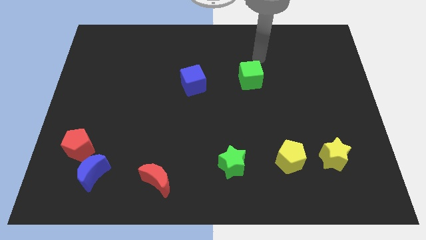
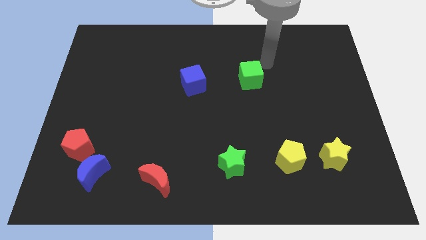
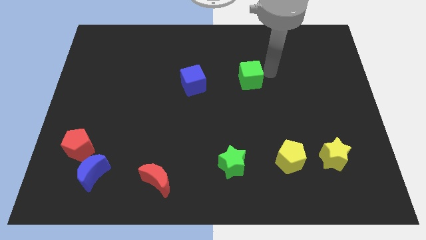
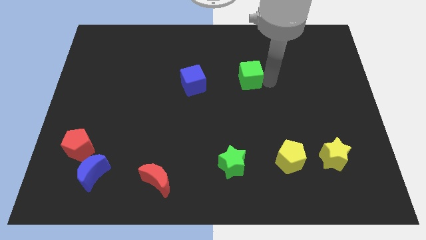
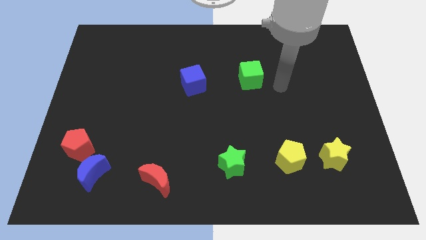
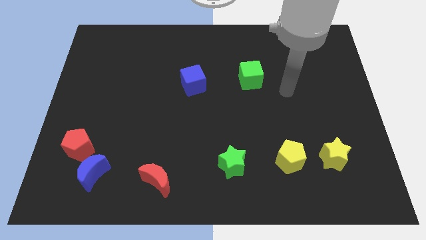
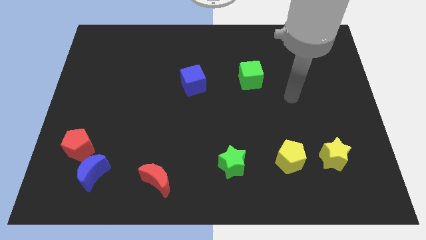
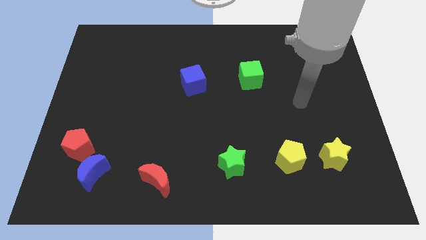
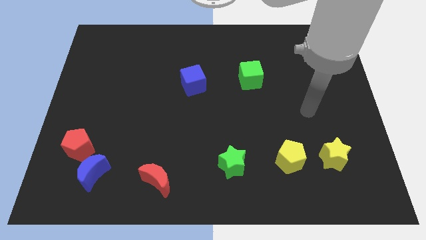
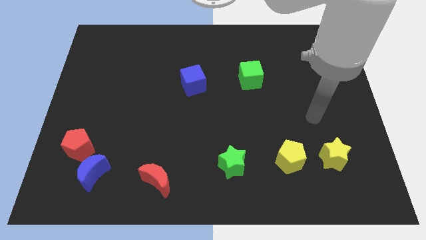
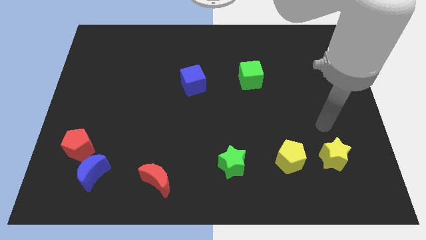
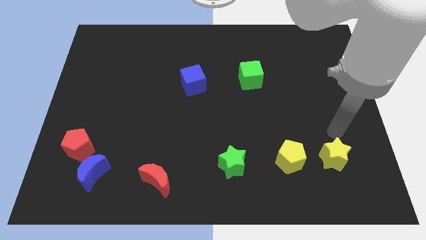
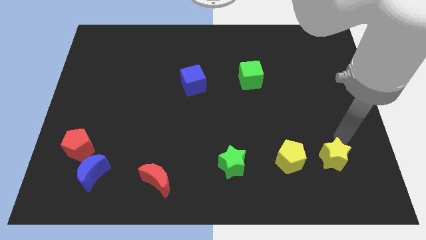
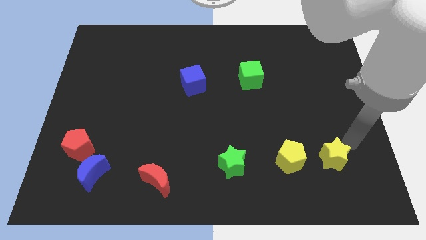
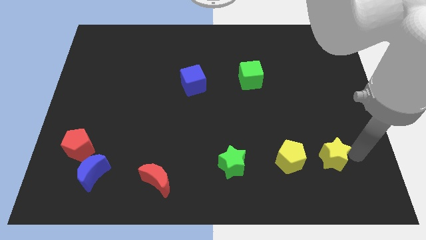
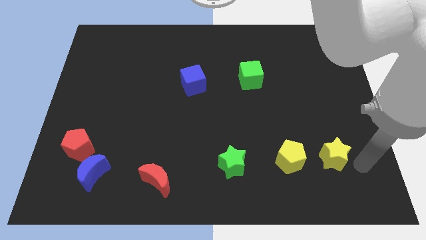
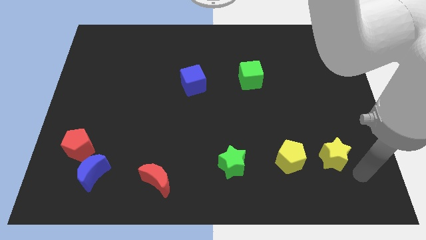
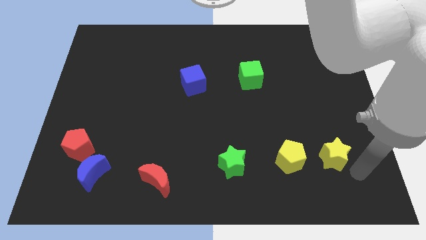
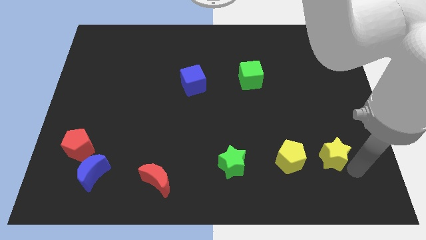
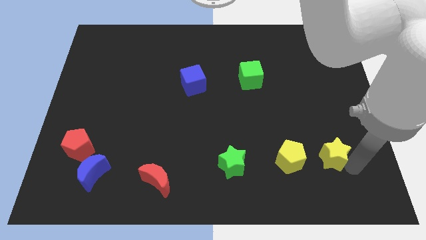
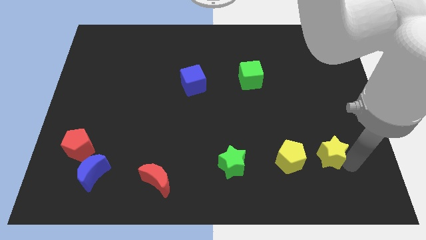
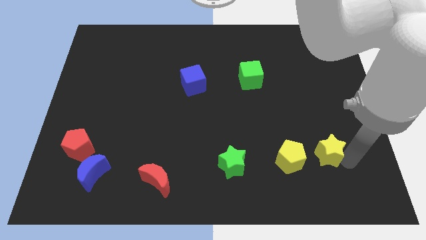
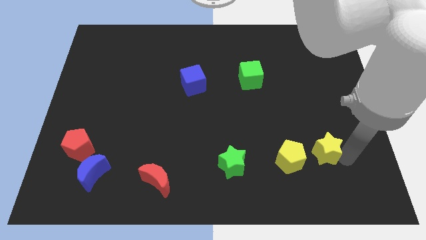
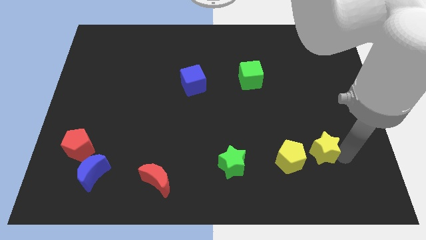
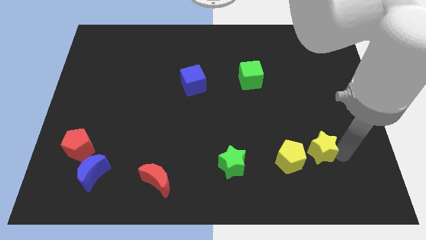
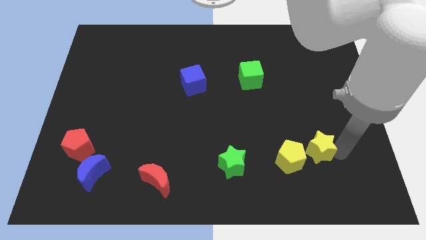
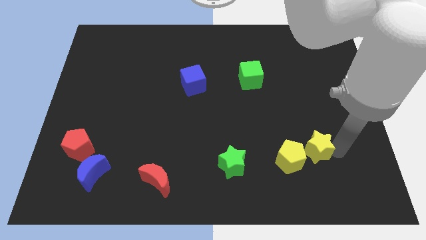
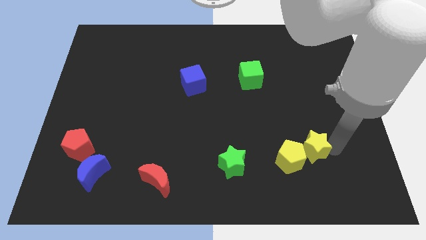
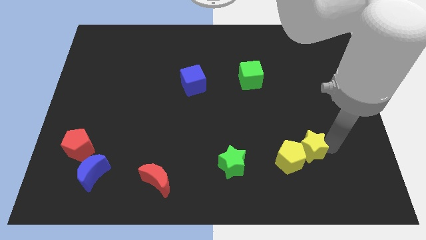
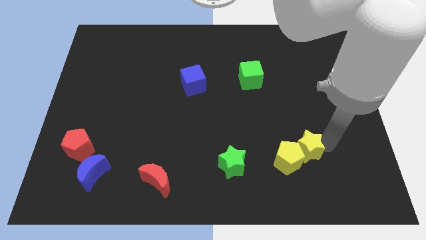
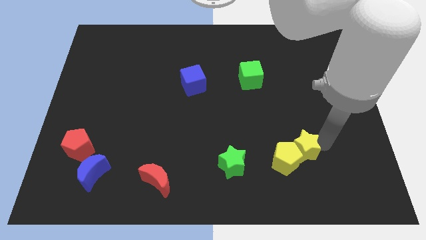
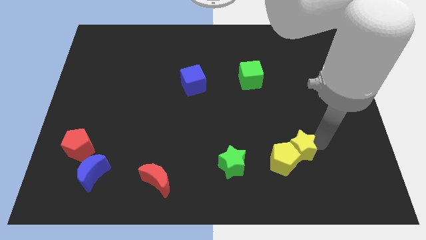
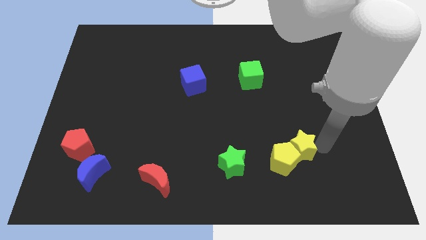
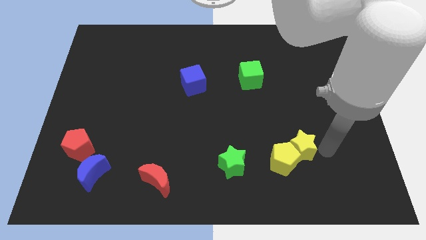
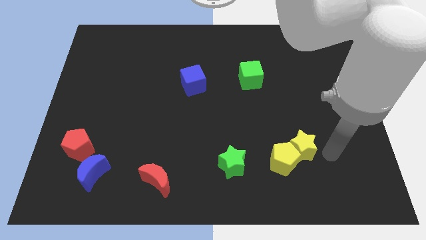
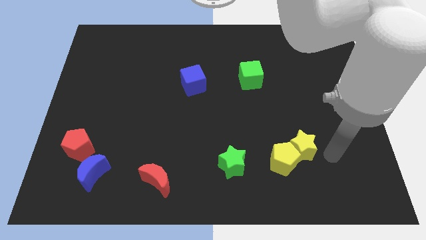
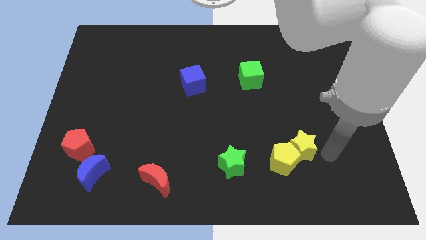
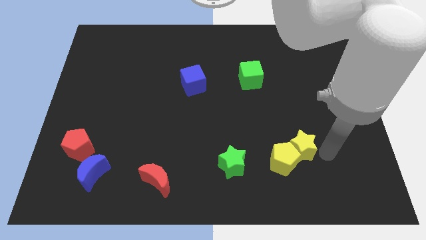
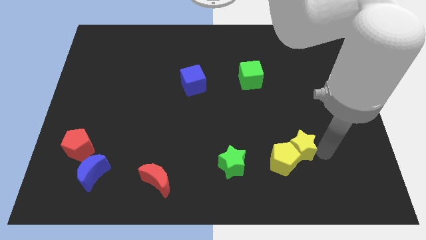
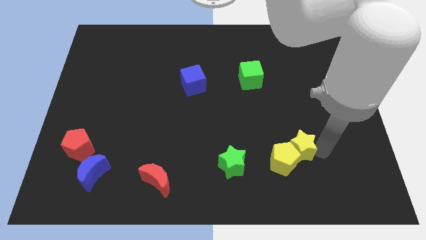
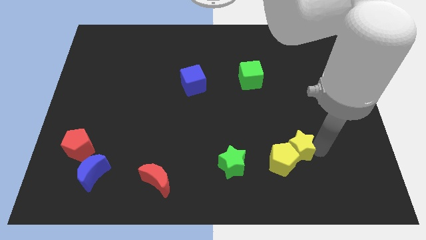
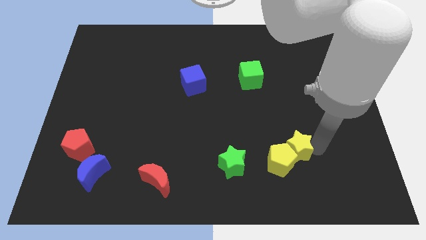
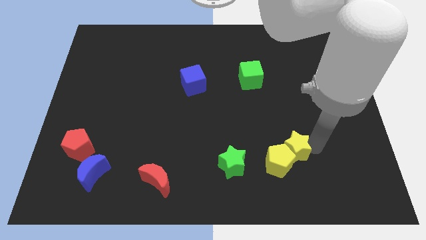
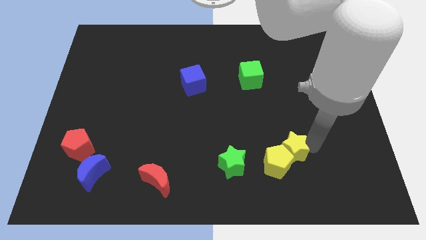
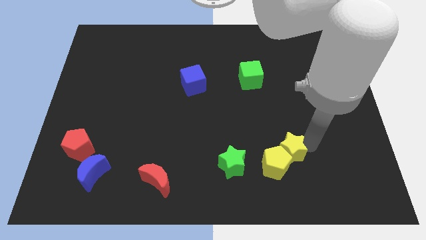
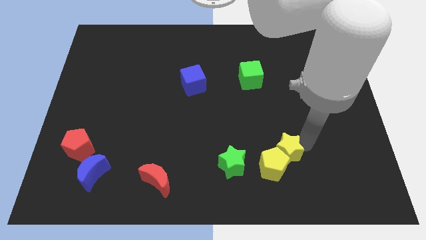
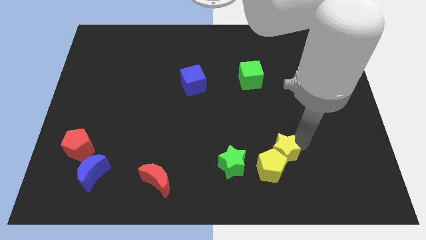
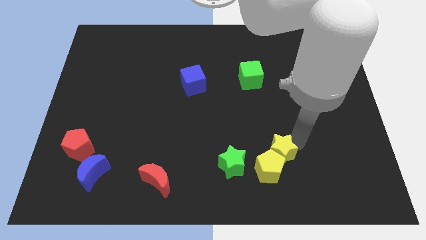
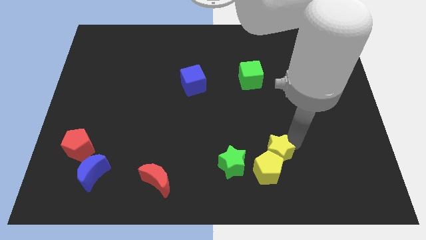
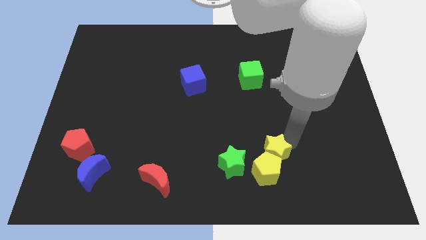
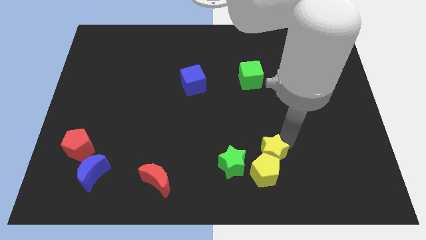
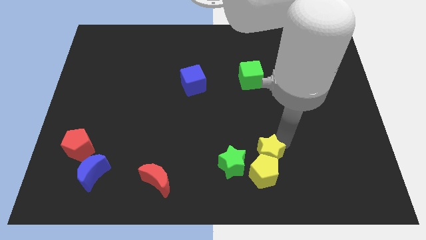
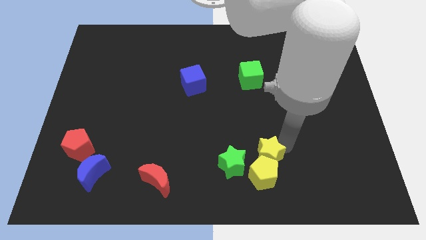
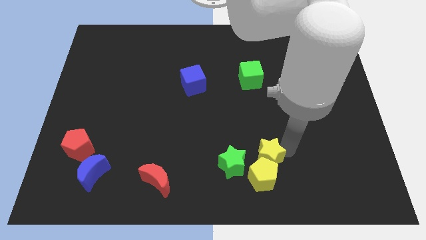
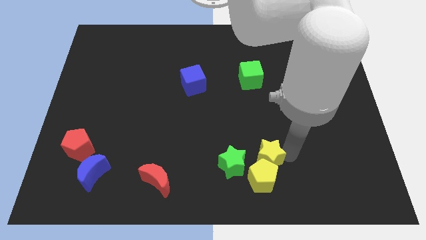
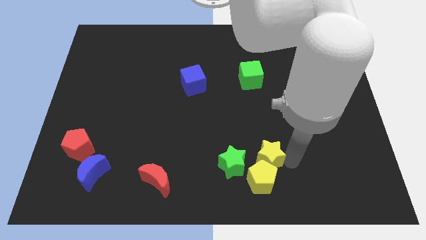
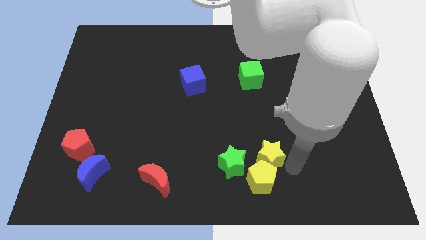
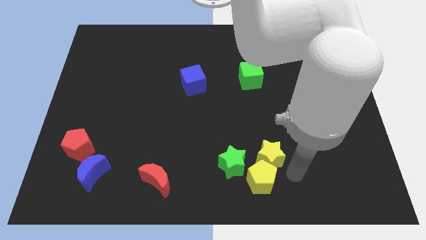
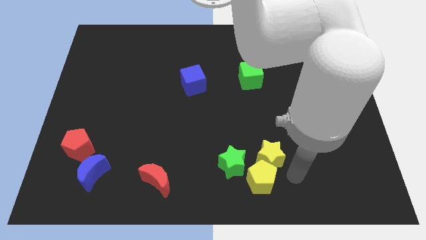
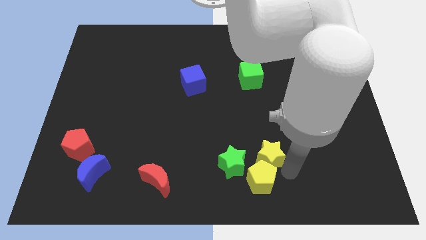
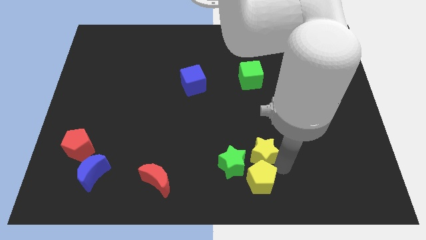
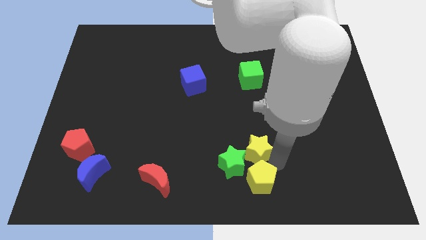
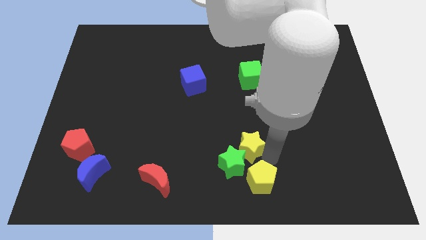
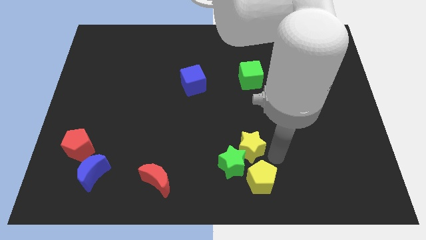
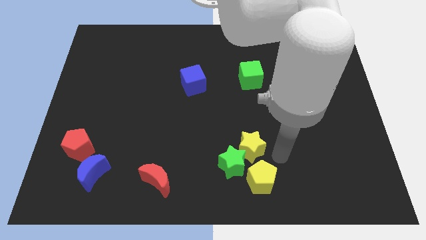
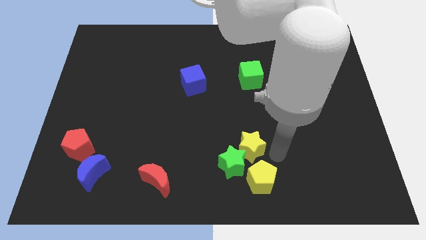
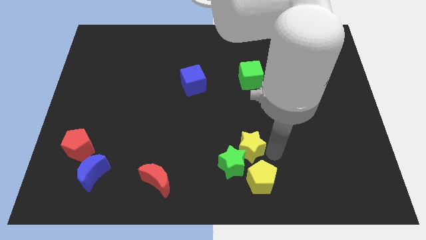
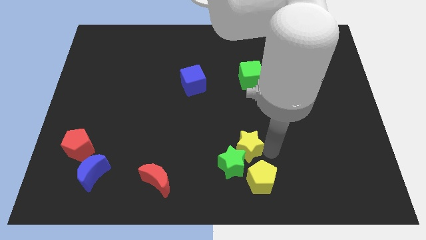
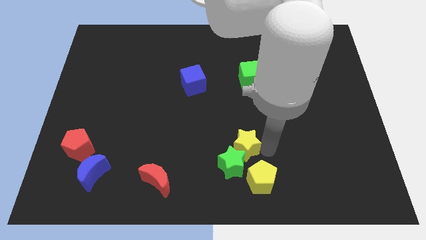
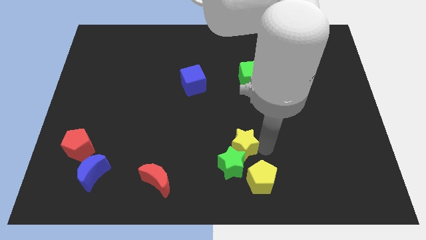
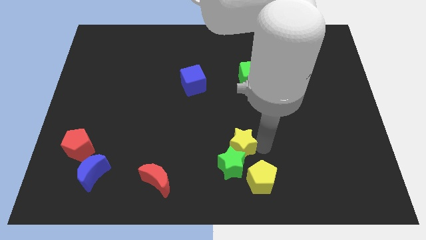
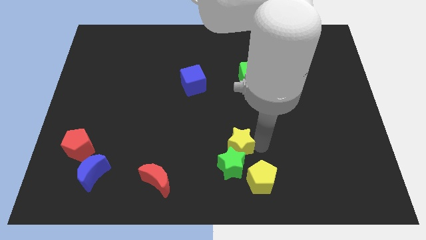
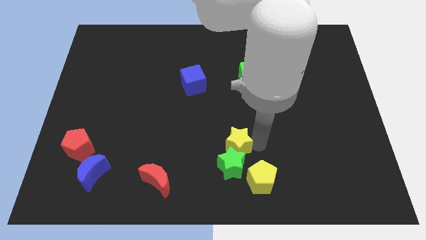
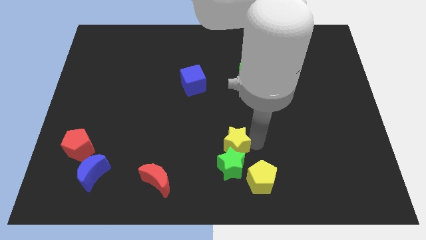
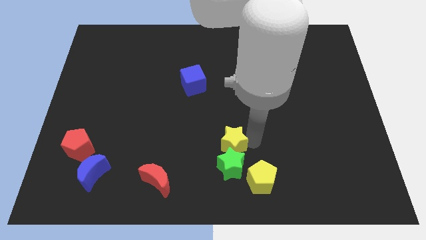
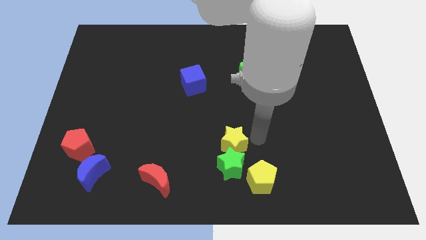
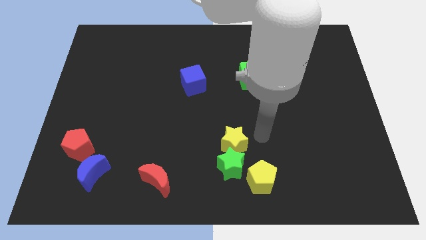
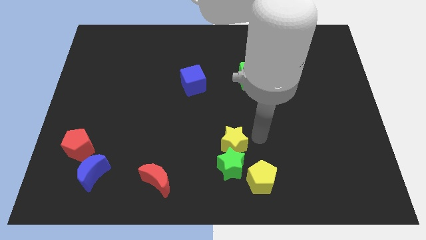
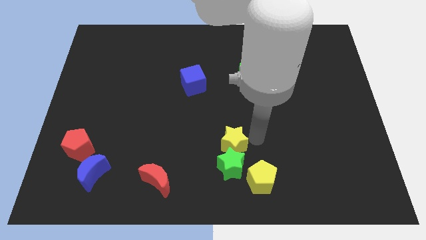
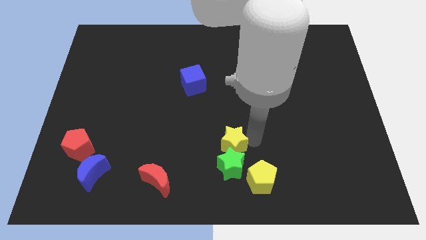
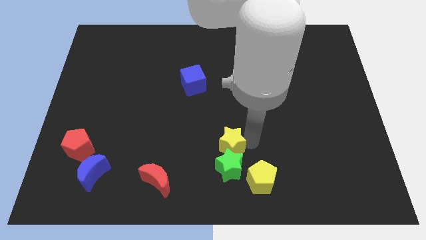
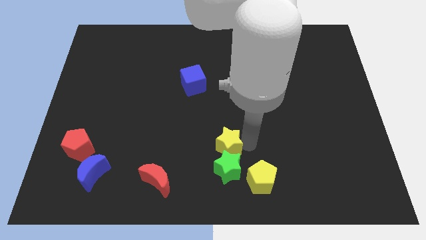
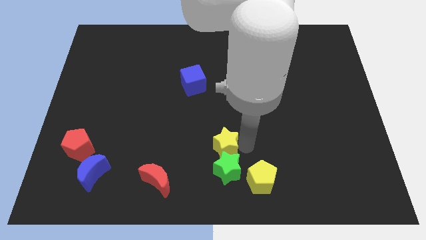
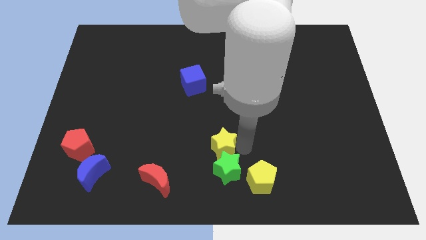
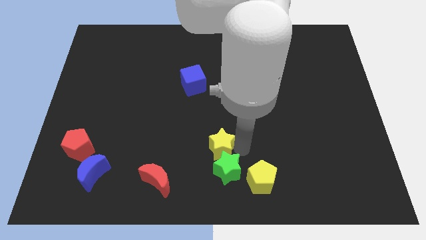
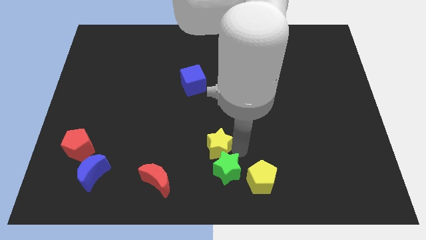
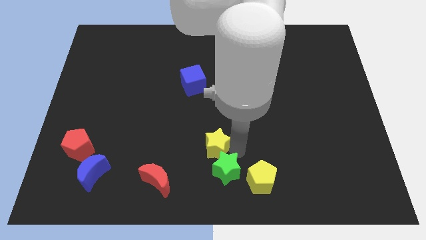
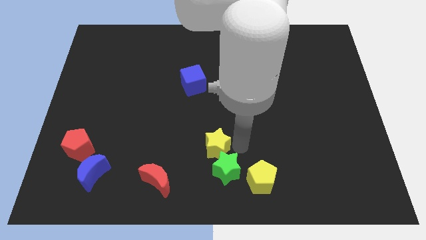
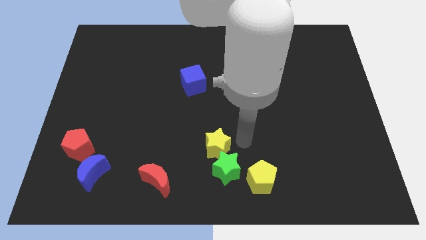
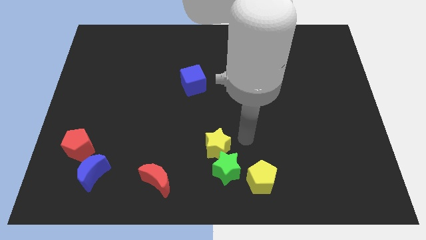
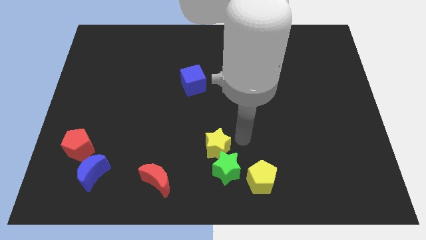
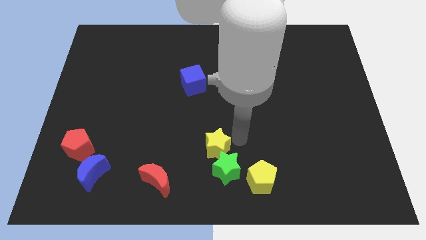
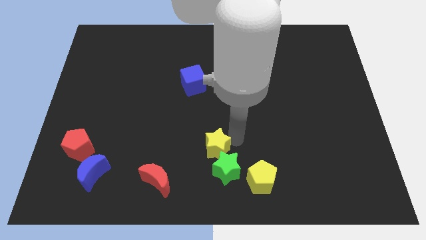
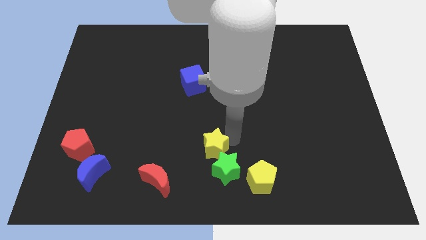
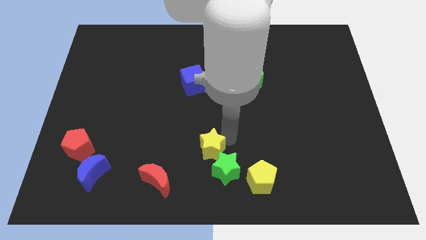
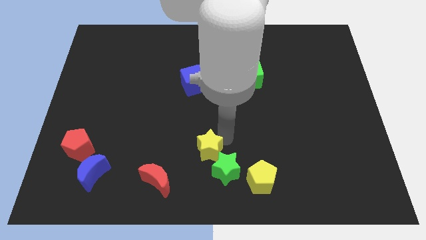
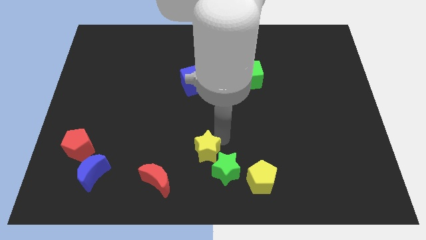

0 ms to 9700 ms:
put the yellow star to the top right side of the red moon
